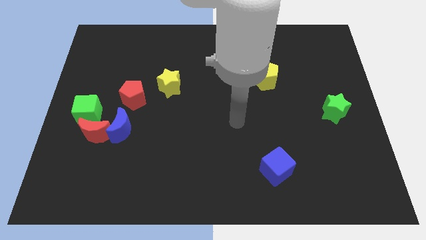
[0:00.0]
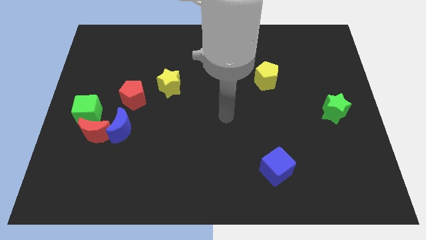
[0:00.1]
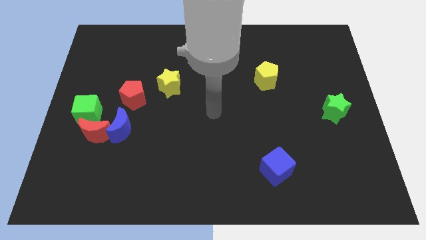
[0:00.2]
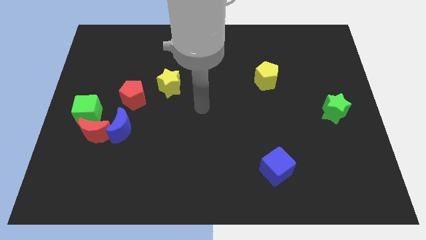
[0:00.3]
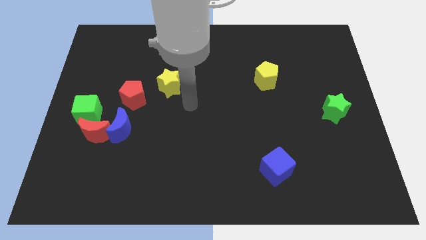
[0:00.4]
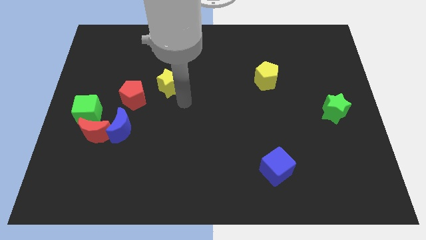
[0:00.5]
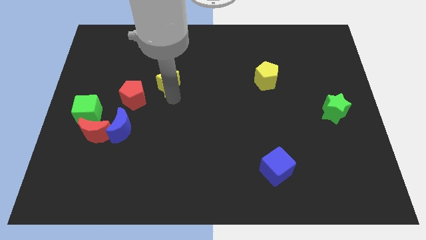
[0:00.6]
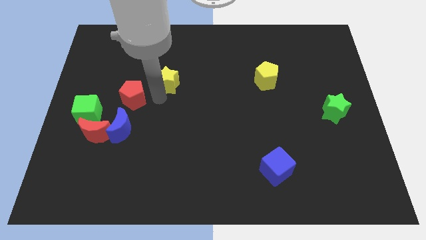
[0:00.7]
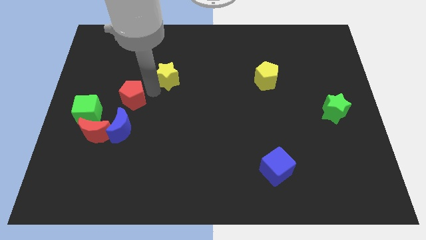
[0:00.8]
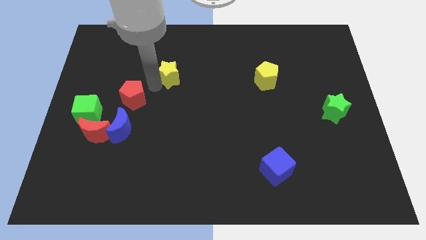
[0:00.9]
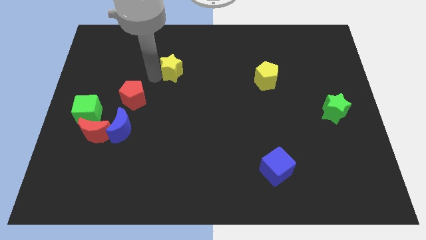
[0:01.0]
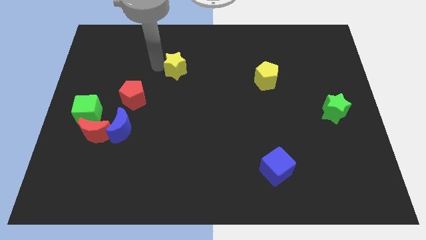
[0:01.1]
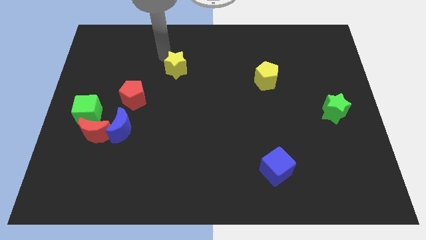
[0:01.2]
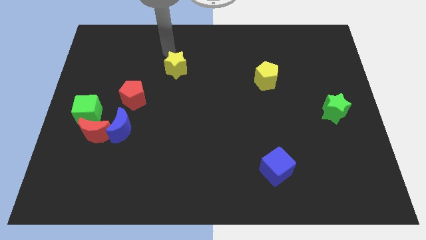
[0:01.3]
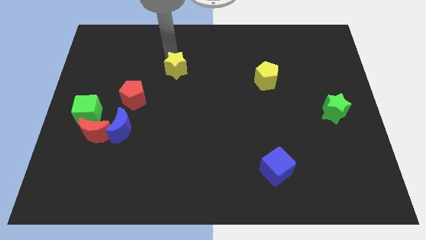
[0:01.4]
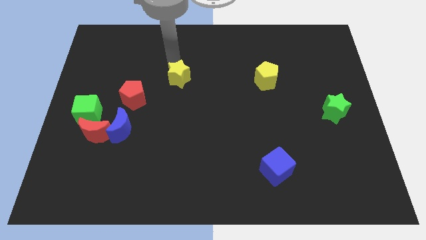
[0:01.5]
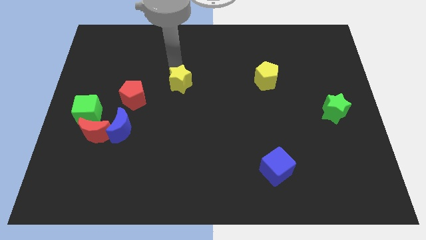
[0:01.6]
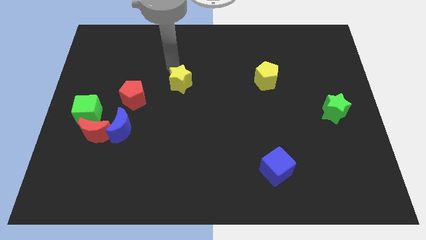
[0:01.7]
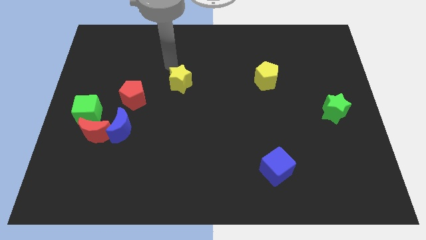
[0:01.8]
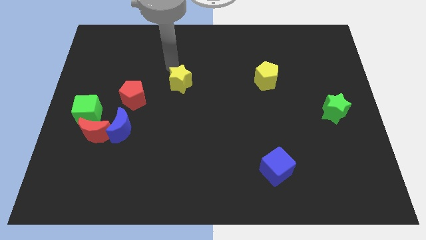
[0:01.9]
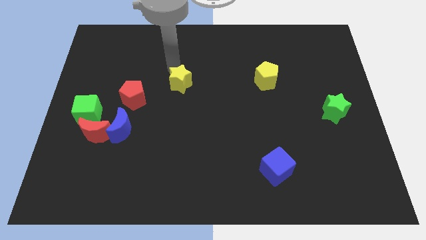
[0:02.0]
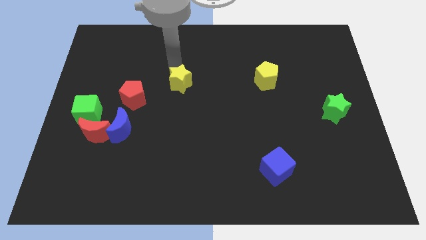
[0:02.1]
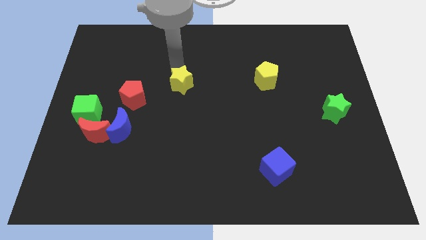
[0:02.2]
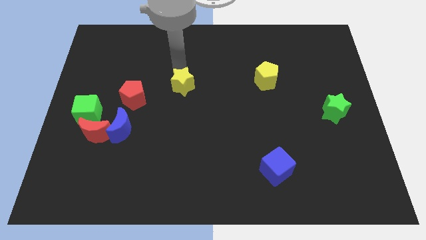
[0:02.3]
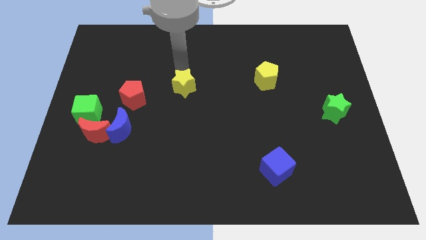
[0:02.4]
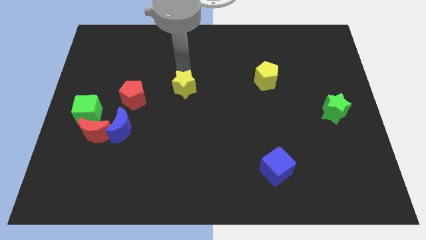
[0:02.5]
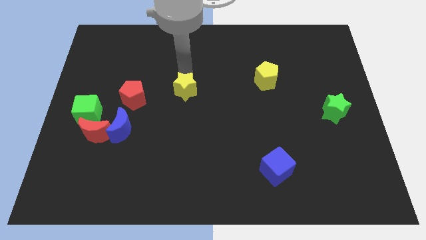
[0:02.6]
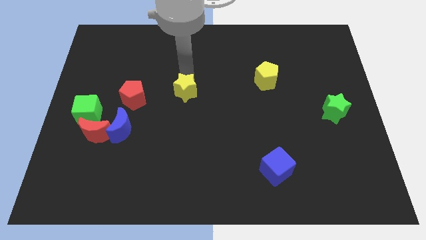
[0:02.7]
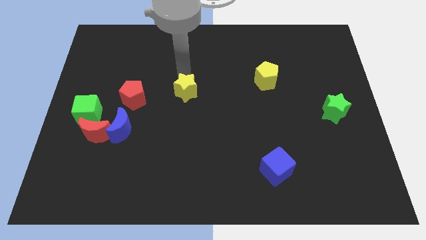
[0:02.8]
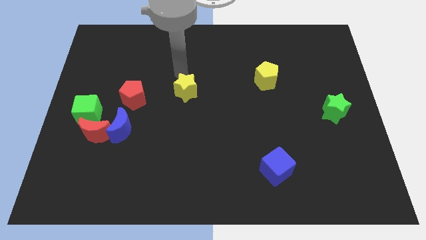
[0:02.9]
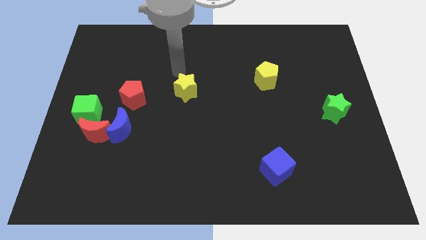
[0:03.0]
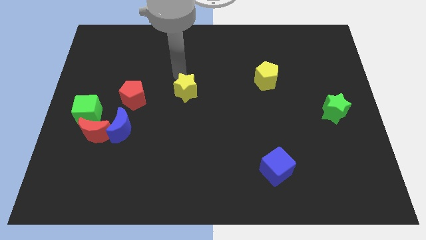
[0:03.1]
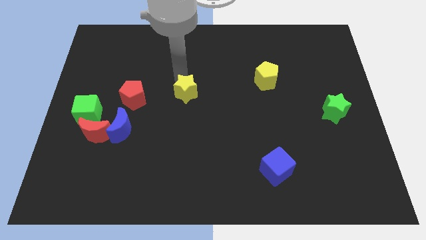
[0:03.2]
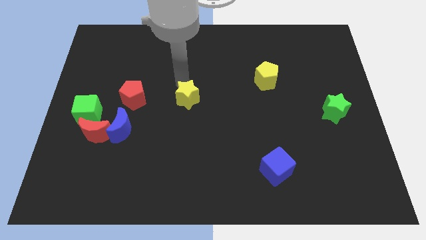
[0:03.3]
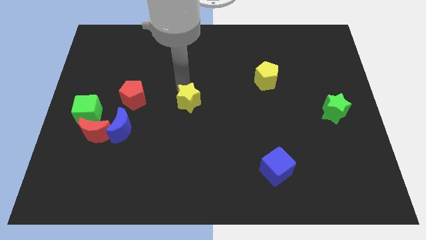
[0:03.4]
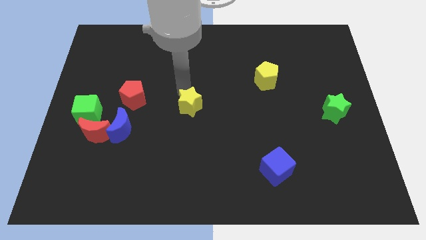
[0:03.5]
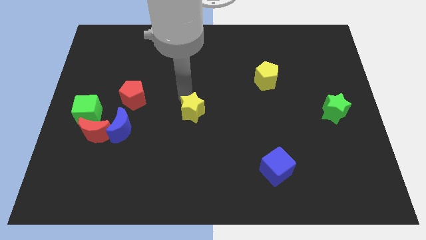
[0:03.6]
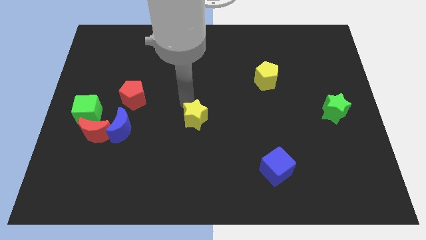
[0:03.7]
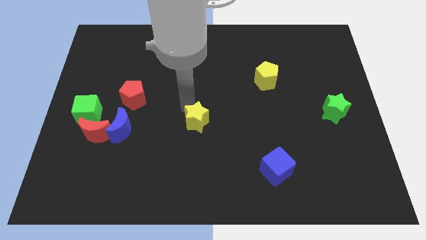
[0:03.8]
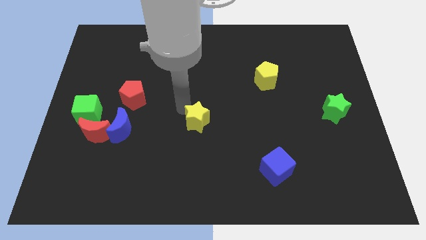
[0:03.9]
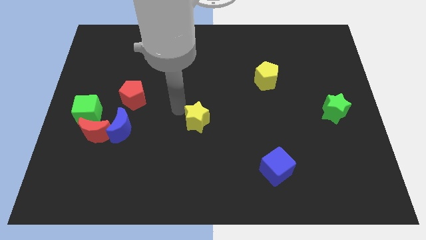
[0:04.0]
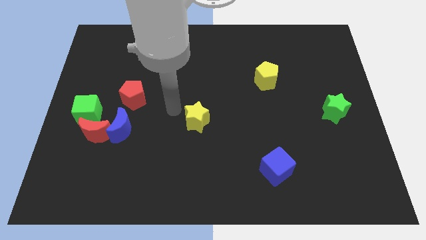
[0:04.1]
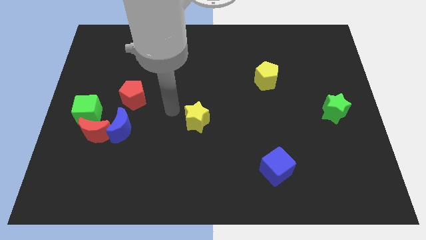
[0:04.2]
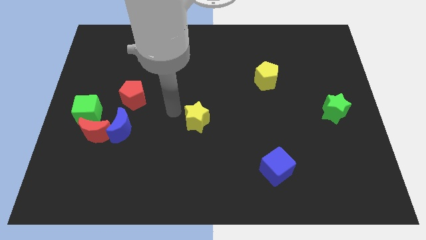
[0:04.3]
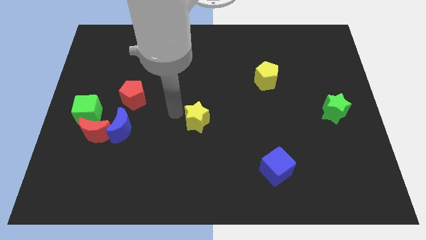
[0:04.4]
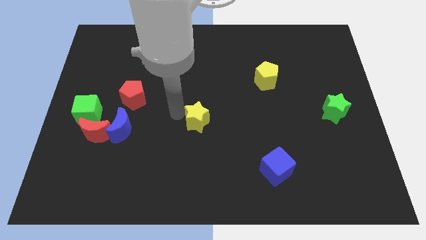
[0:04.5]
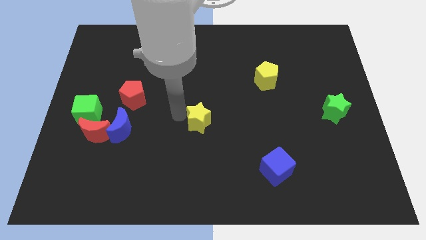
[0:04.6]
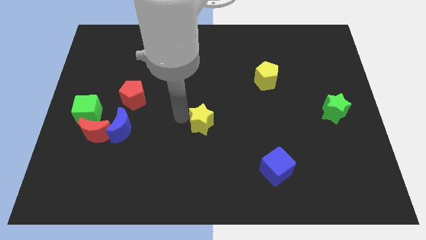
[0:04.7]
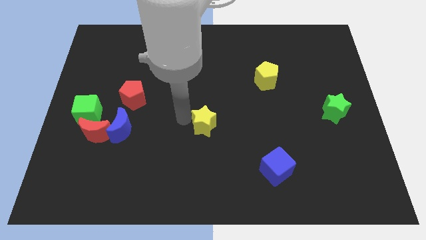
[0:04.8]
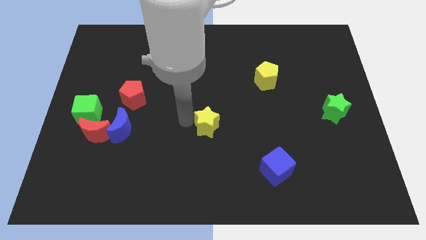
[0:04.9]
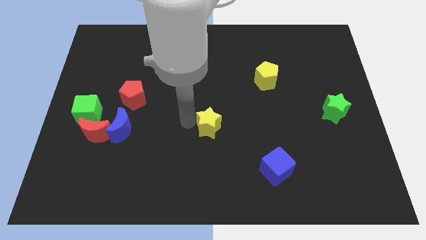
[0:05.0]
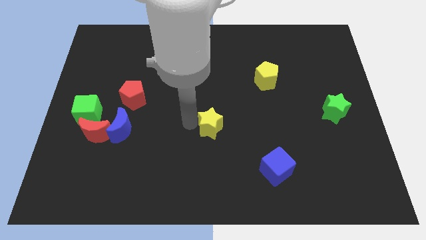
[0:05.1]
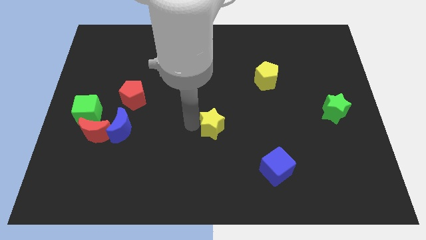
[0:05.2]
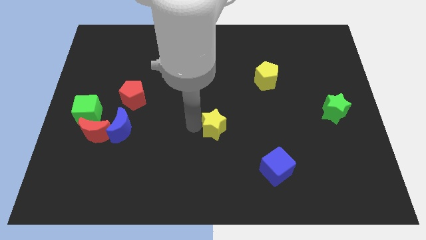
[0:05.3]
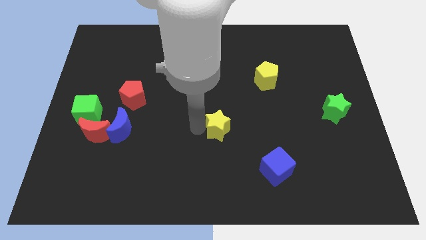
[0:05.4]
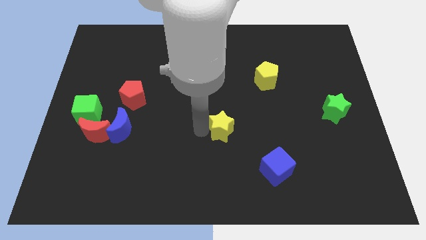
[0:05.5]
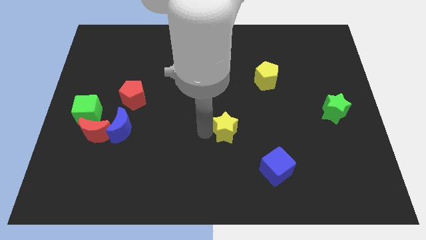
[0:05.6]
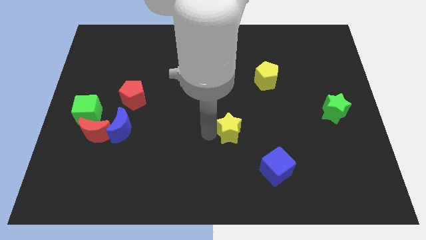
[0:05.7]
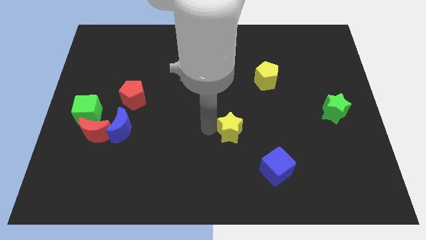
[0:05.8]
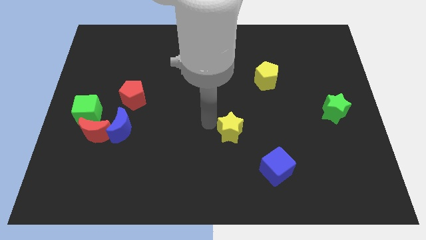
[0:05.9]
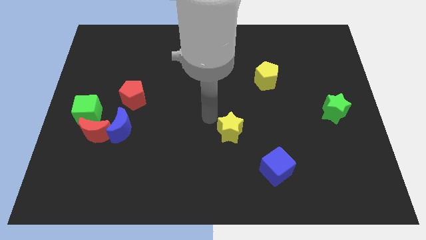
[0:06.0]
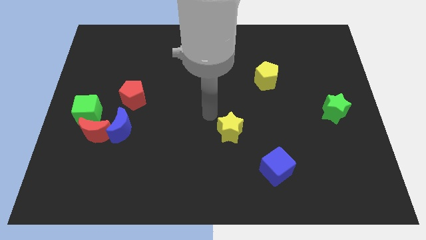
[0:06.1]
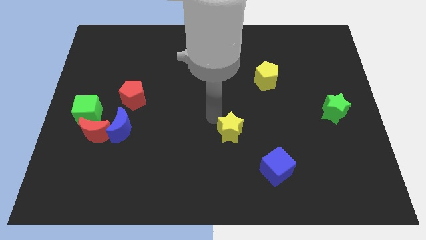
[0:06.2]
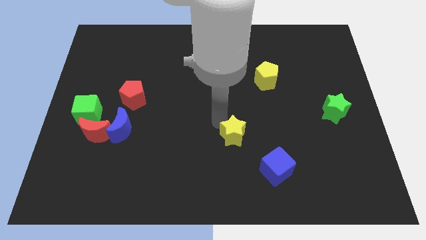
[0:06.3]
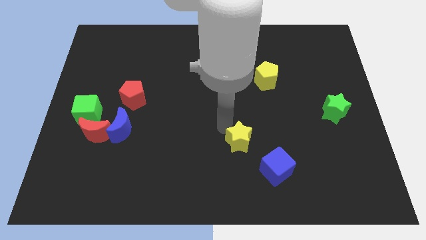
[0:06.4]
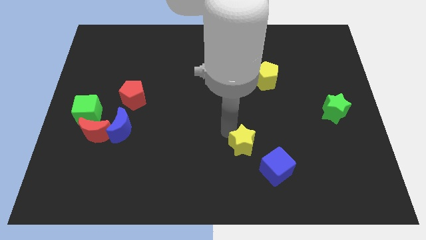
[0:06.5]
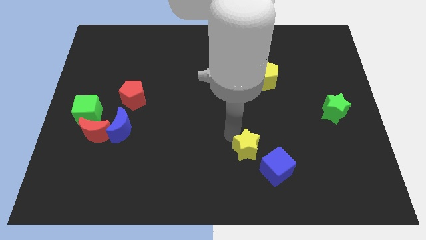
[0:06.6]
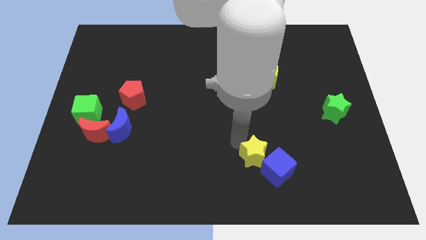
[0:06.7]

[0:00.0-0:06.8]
put the yellow star to the blue cube
